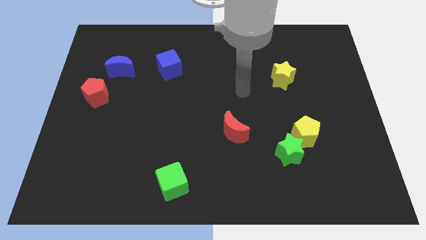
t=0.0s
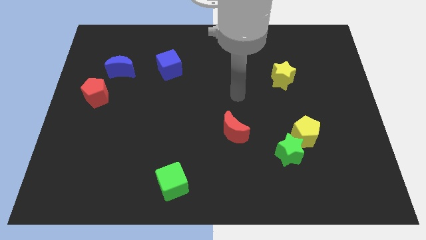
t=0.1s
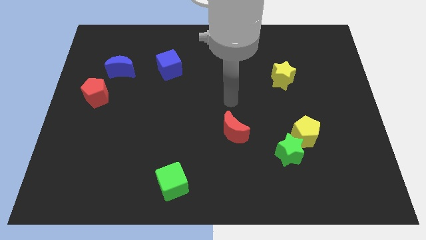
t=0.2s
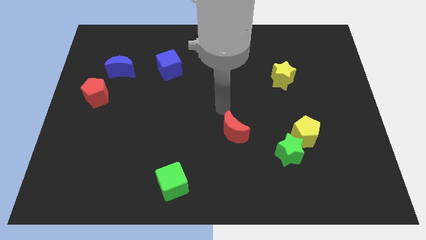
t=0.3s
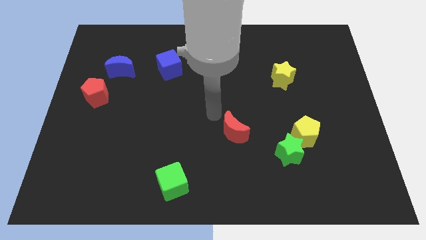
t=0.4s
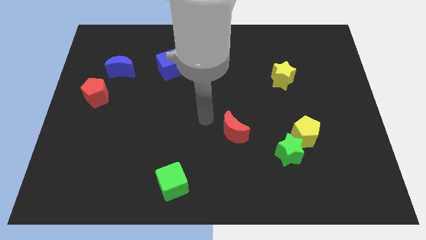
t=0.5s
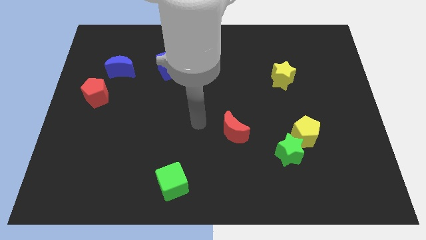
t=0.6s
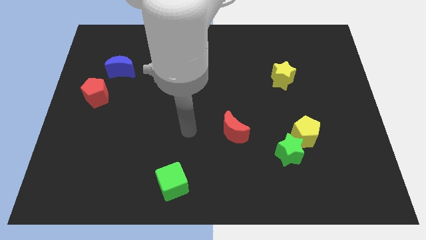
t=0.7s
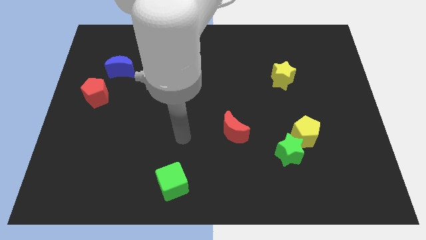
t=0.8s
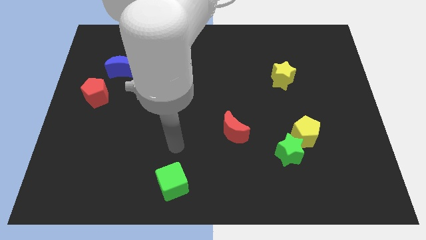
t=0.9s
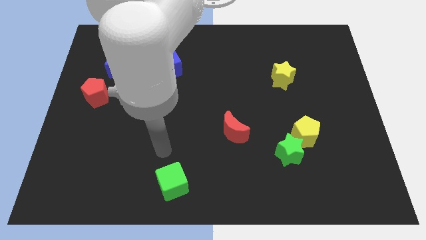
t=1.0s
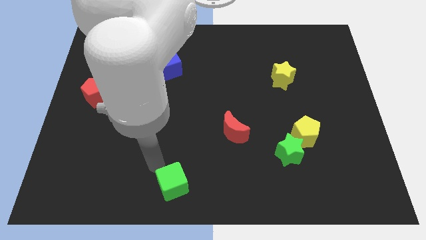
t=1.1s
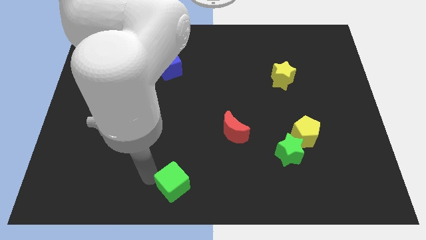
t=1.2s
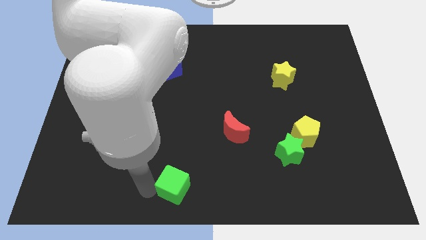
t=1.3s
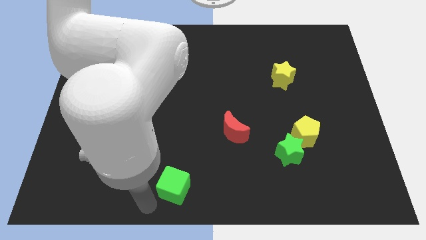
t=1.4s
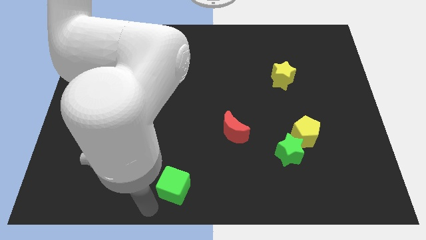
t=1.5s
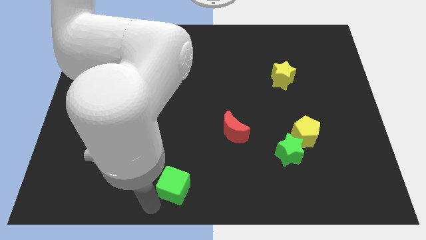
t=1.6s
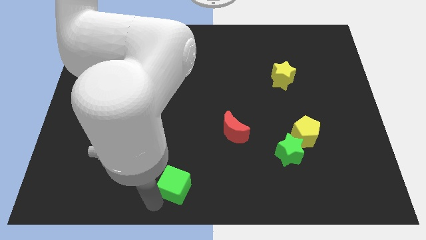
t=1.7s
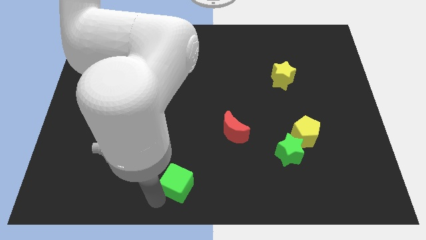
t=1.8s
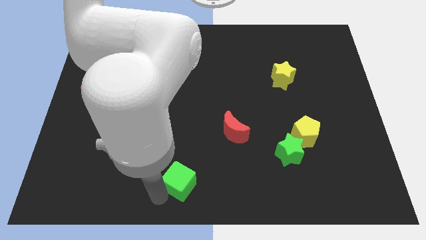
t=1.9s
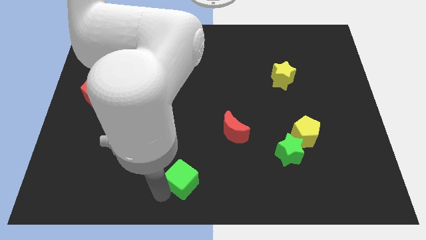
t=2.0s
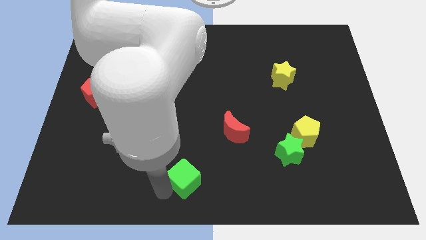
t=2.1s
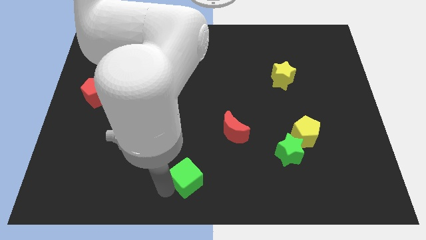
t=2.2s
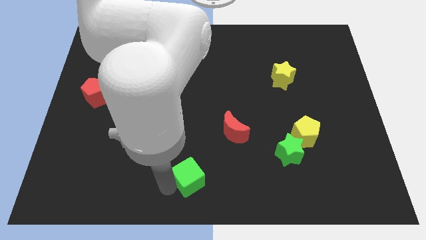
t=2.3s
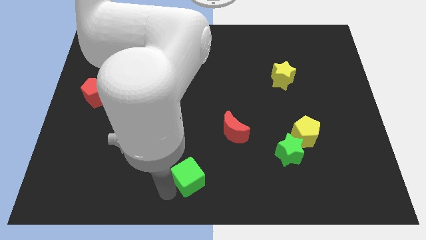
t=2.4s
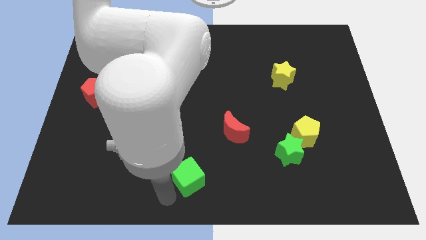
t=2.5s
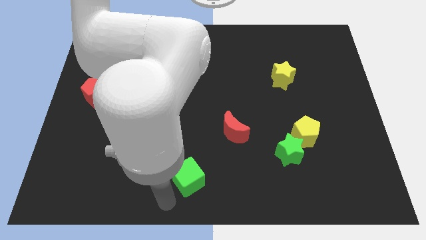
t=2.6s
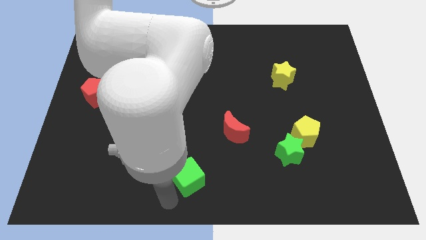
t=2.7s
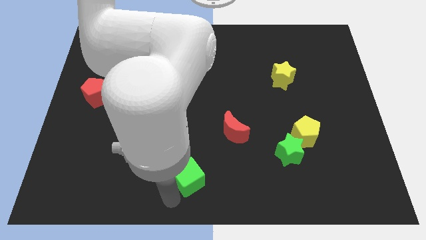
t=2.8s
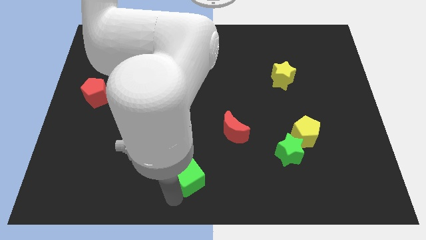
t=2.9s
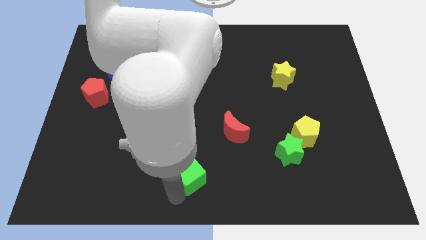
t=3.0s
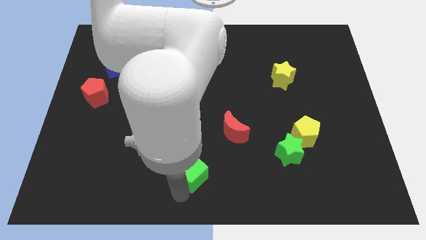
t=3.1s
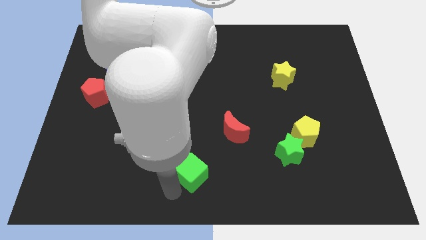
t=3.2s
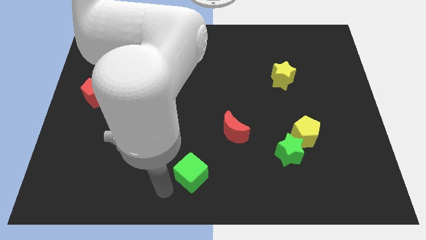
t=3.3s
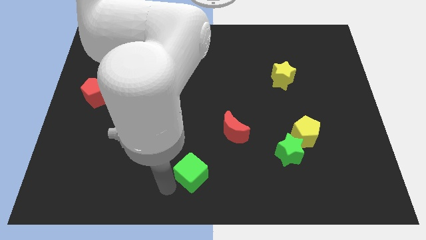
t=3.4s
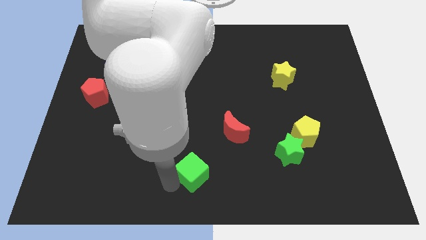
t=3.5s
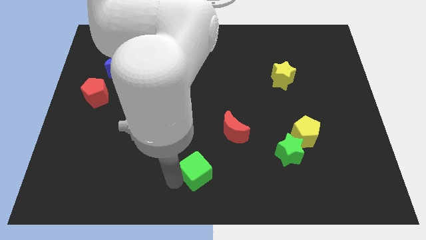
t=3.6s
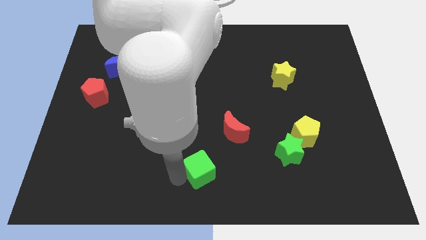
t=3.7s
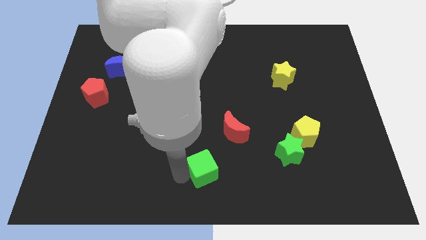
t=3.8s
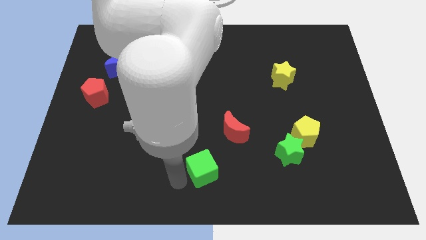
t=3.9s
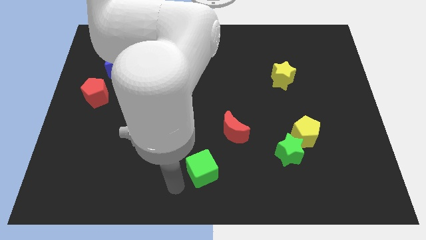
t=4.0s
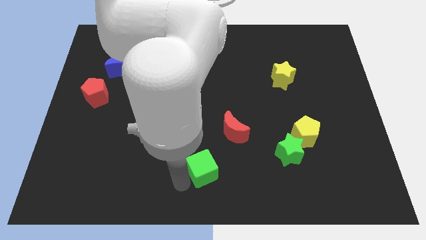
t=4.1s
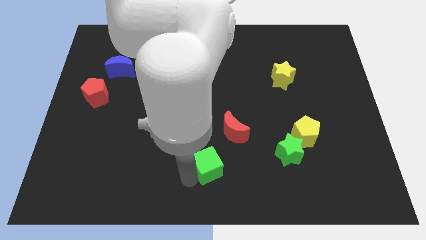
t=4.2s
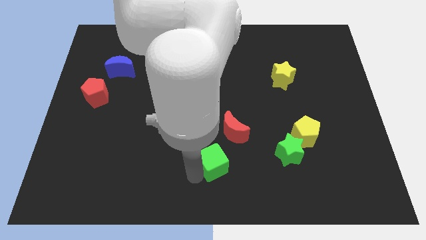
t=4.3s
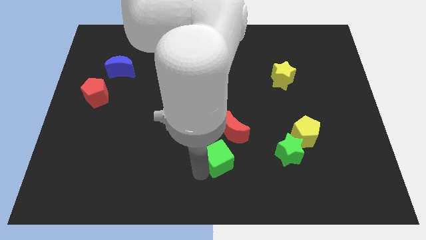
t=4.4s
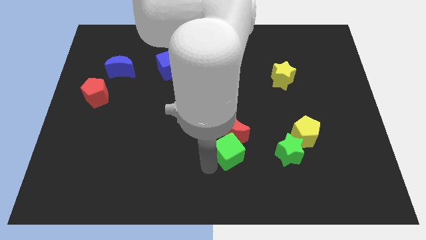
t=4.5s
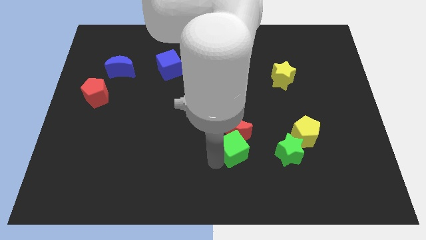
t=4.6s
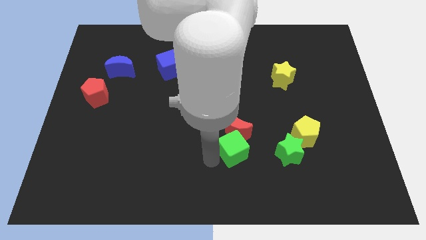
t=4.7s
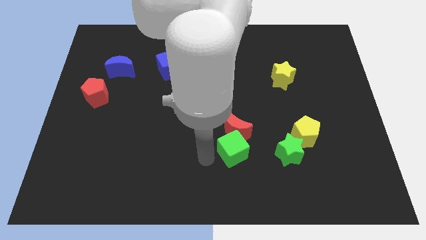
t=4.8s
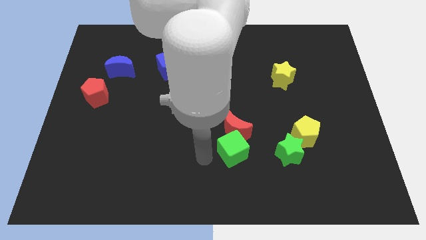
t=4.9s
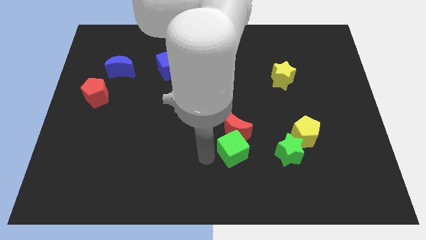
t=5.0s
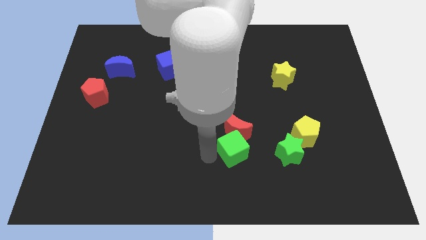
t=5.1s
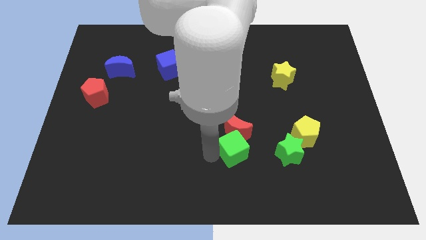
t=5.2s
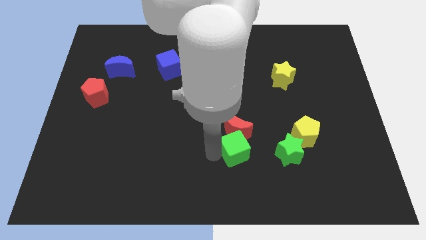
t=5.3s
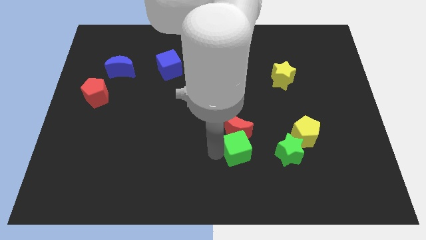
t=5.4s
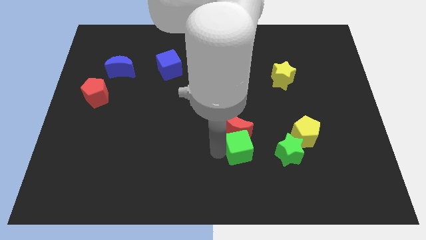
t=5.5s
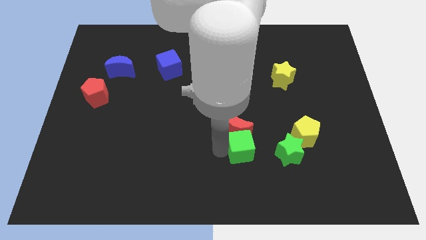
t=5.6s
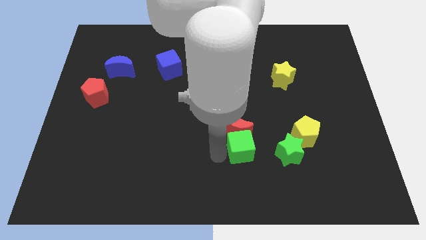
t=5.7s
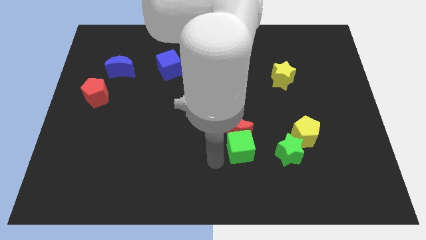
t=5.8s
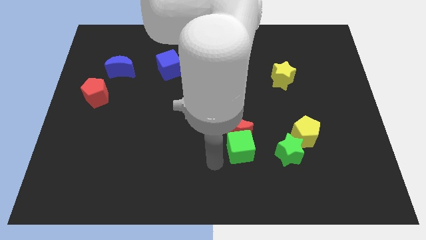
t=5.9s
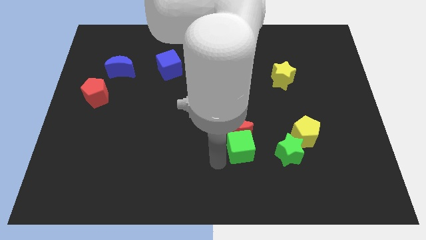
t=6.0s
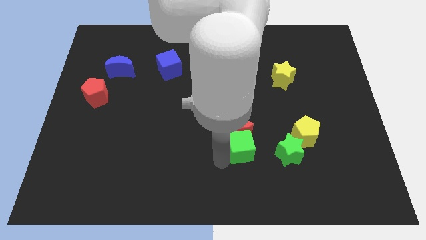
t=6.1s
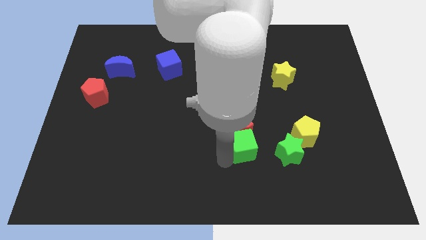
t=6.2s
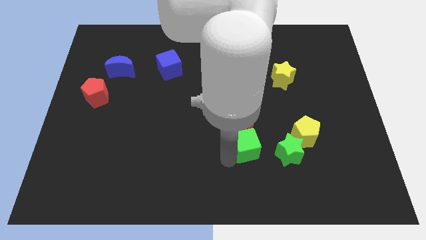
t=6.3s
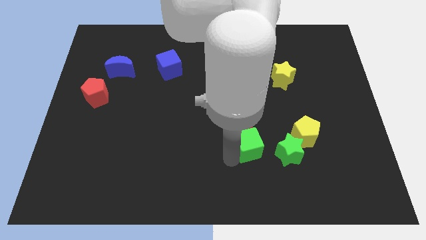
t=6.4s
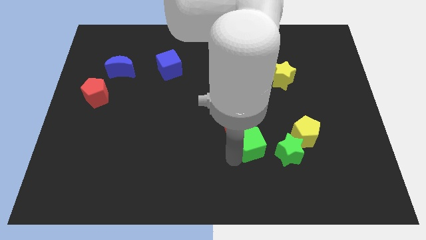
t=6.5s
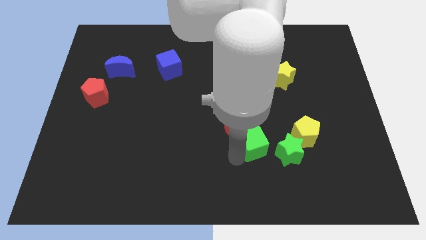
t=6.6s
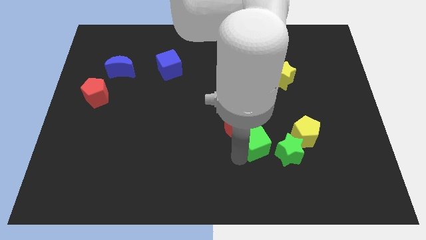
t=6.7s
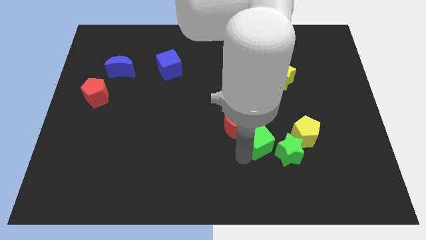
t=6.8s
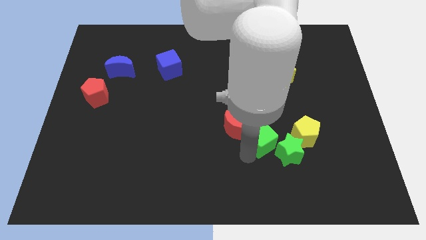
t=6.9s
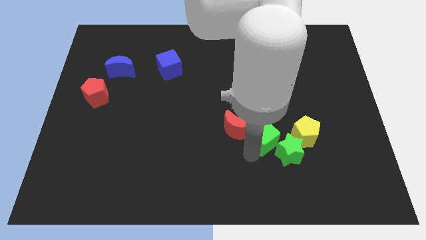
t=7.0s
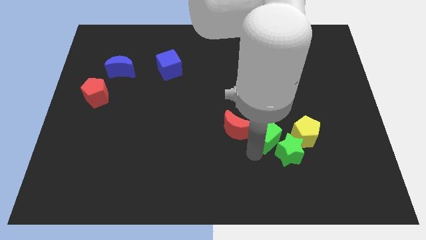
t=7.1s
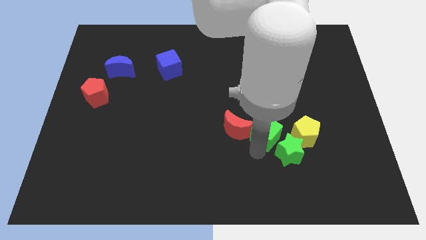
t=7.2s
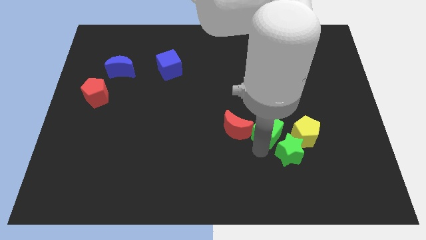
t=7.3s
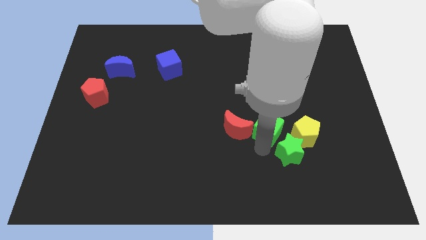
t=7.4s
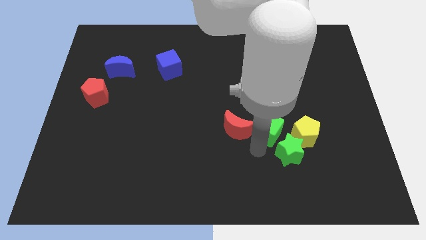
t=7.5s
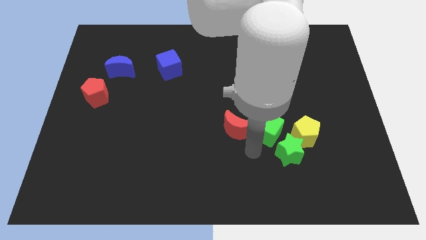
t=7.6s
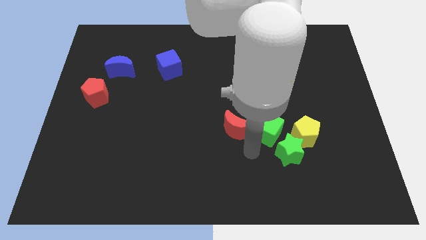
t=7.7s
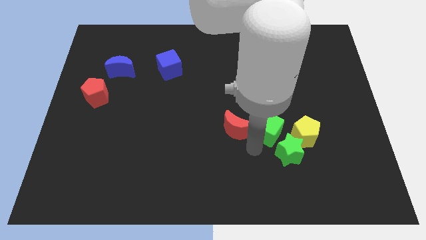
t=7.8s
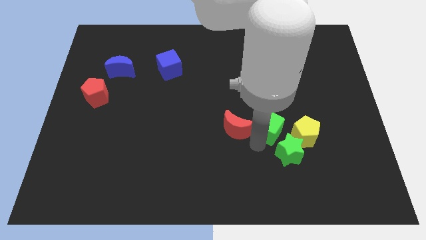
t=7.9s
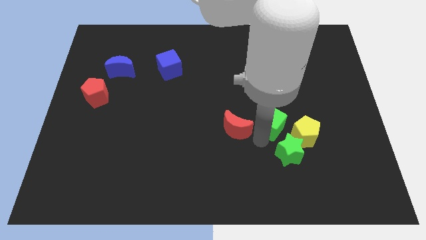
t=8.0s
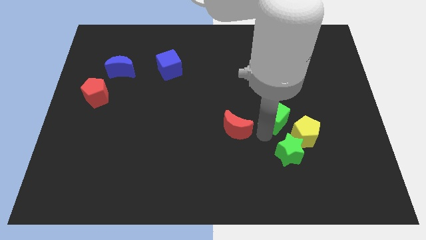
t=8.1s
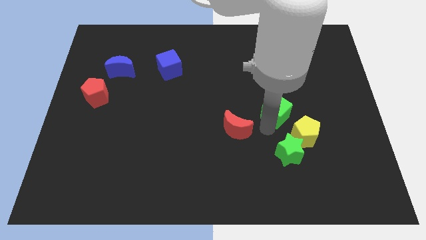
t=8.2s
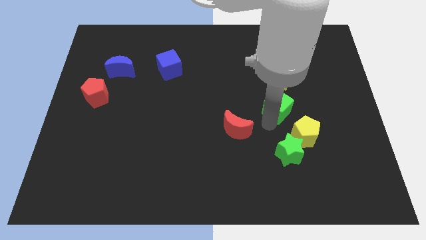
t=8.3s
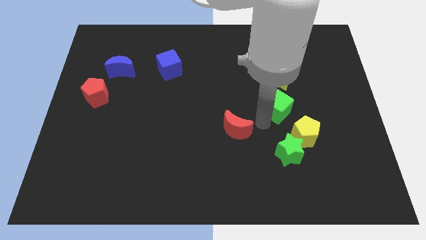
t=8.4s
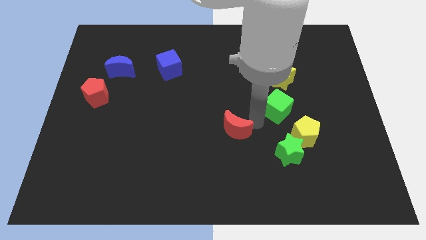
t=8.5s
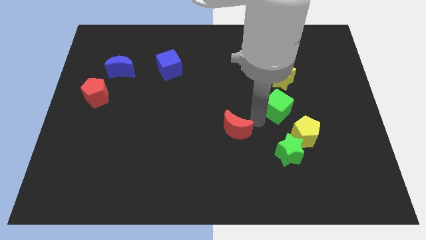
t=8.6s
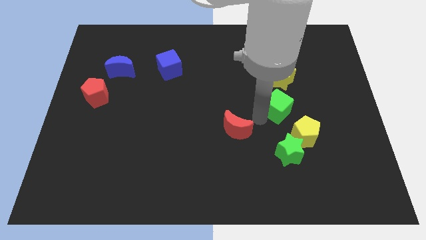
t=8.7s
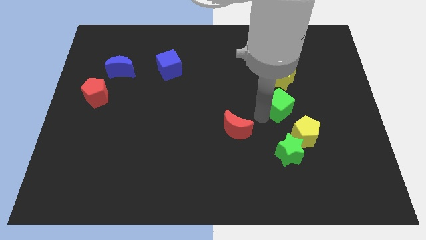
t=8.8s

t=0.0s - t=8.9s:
push the green cube to the top side of the yellow pentagon
